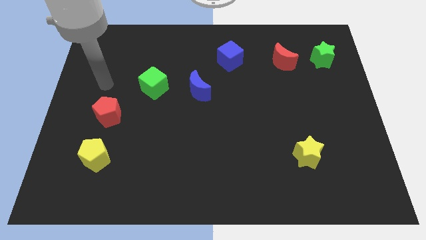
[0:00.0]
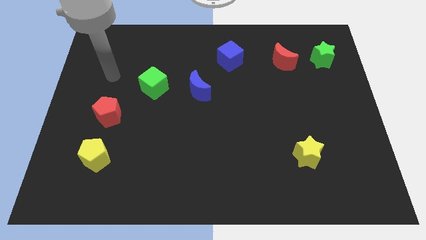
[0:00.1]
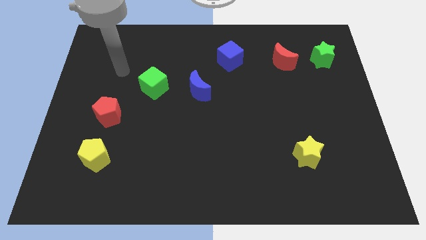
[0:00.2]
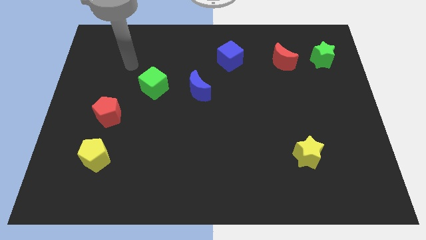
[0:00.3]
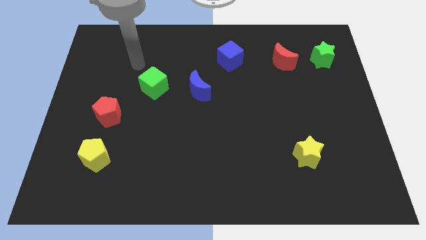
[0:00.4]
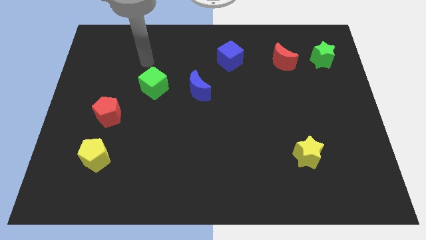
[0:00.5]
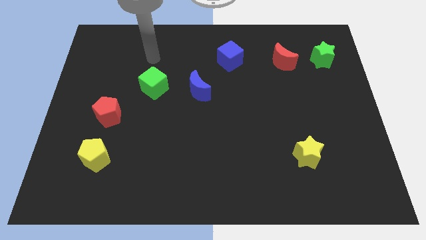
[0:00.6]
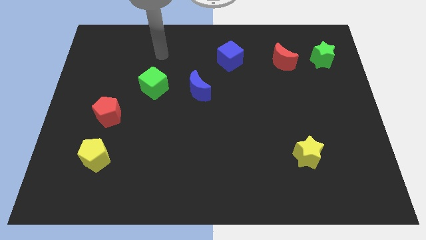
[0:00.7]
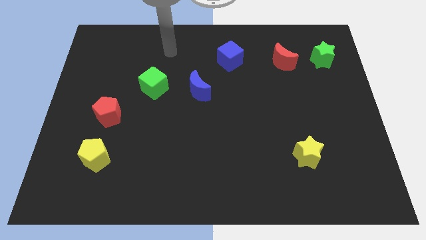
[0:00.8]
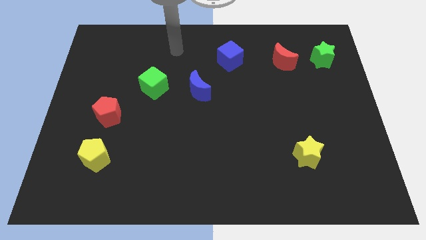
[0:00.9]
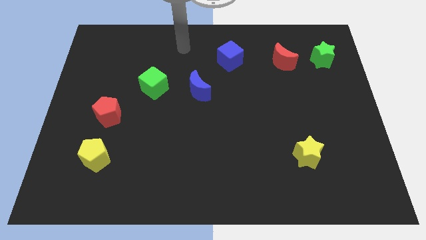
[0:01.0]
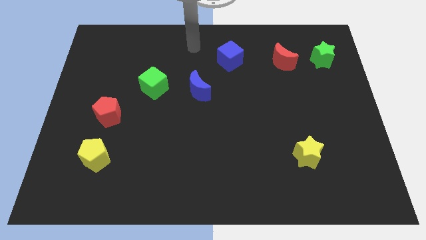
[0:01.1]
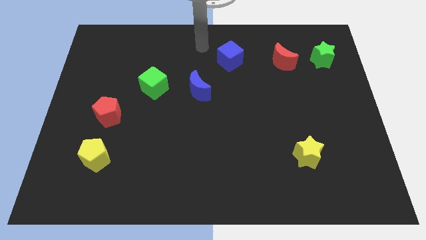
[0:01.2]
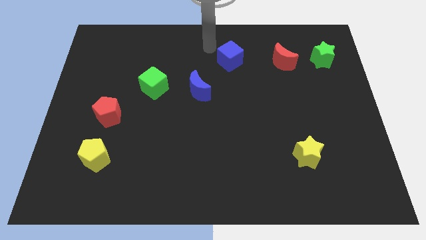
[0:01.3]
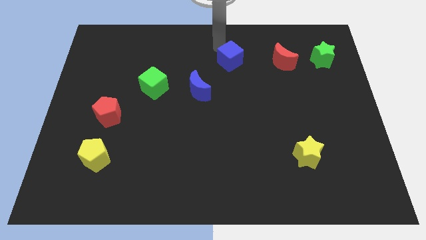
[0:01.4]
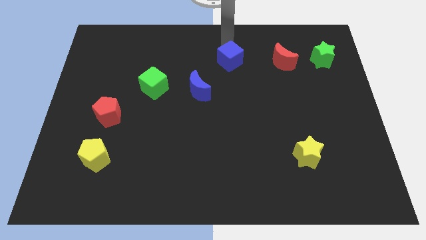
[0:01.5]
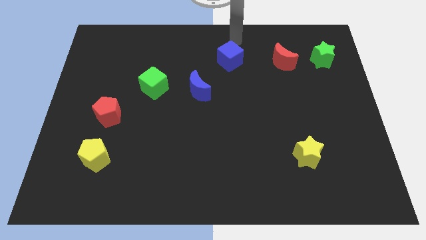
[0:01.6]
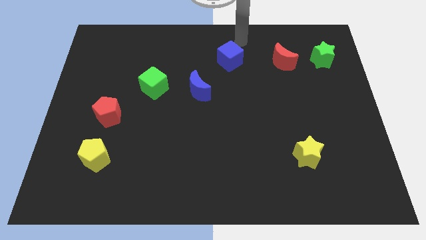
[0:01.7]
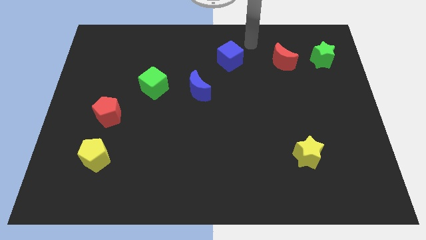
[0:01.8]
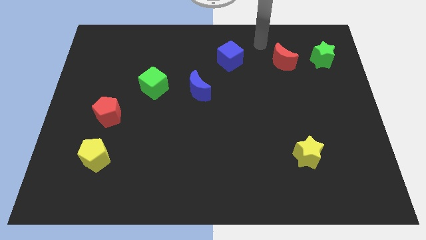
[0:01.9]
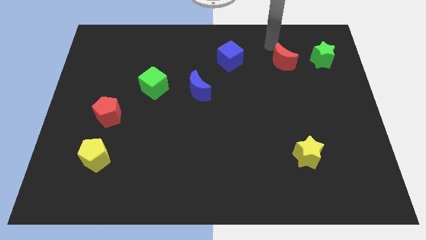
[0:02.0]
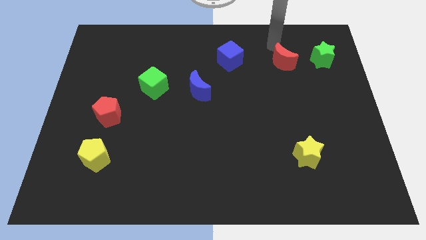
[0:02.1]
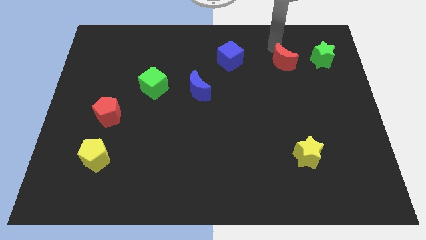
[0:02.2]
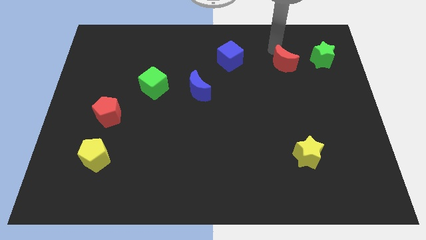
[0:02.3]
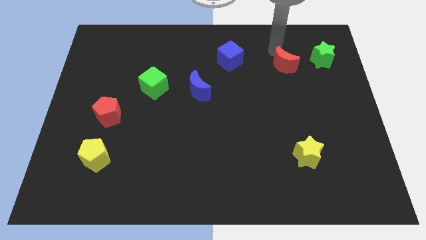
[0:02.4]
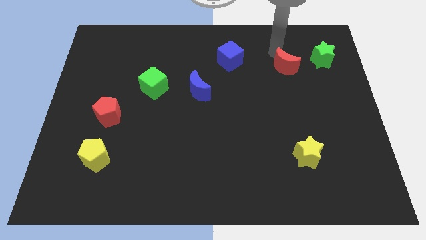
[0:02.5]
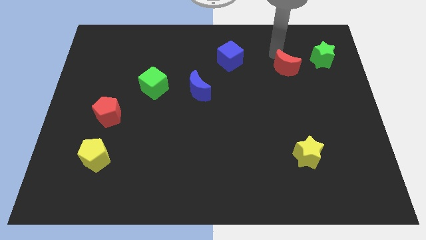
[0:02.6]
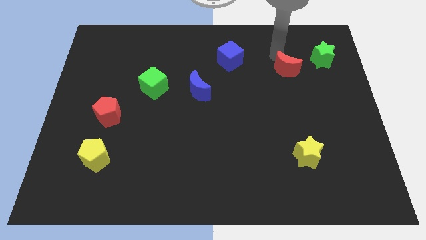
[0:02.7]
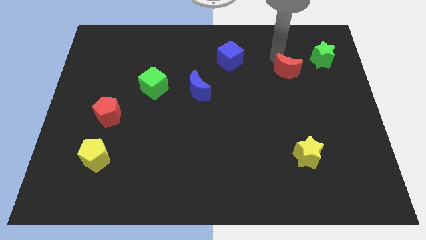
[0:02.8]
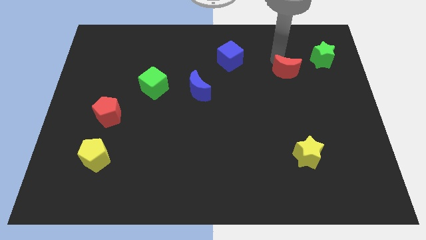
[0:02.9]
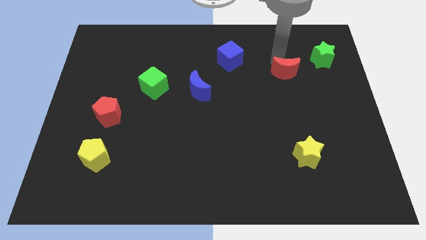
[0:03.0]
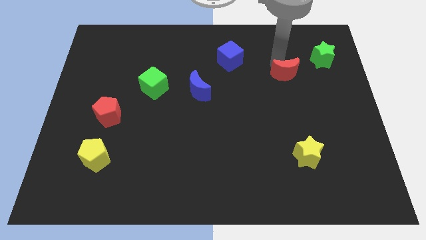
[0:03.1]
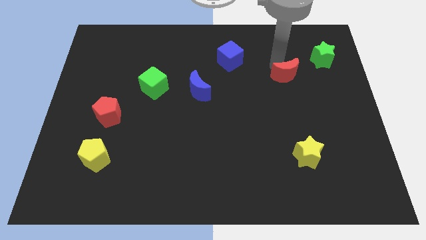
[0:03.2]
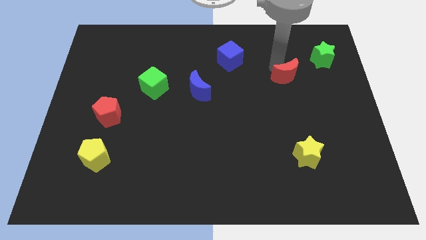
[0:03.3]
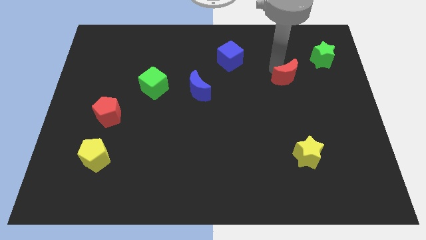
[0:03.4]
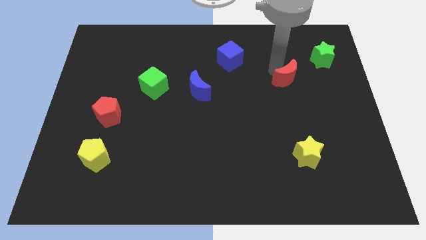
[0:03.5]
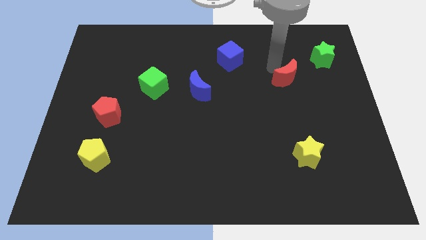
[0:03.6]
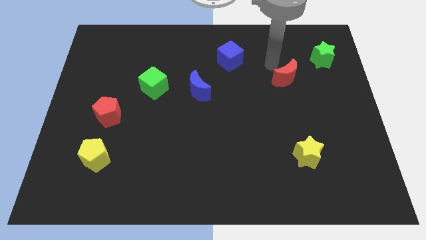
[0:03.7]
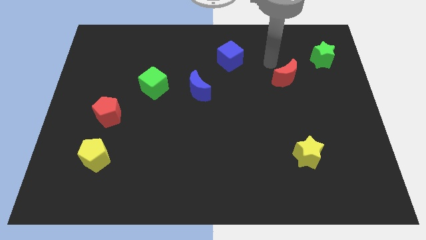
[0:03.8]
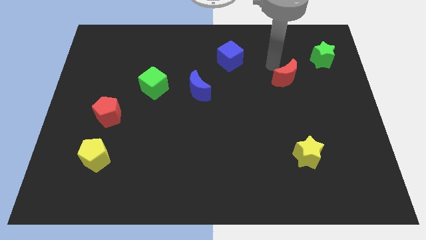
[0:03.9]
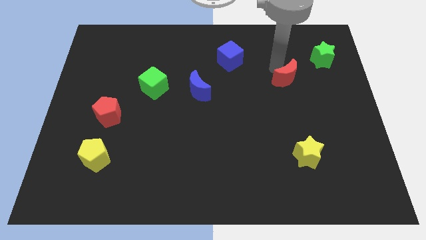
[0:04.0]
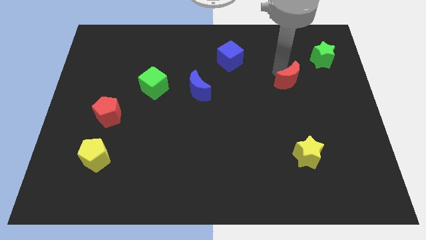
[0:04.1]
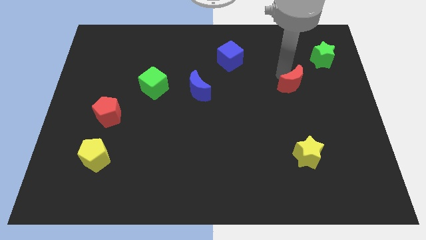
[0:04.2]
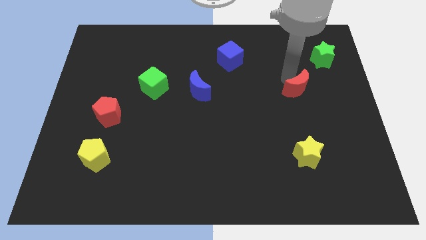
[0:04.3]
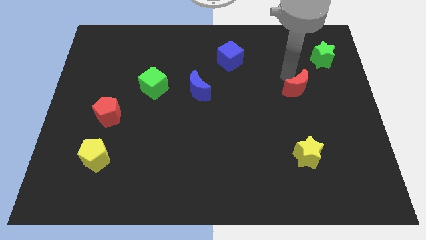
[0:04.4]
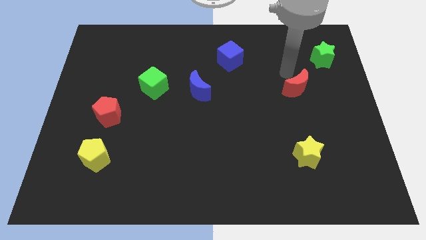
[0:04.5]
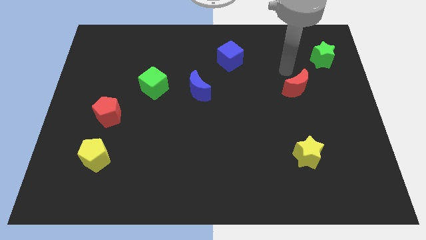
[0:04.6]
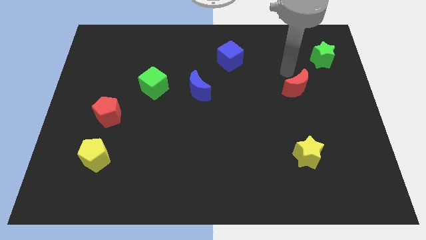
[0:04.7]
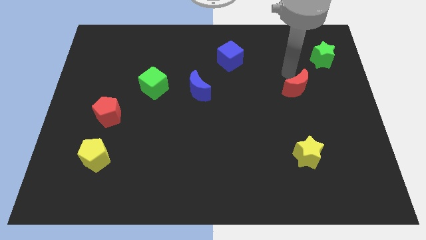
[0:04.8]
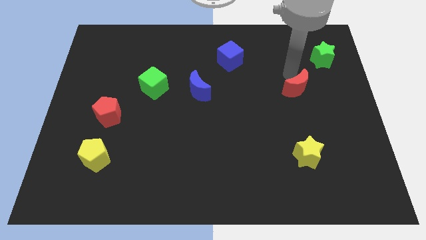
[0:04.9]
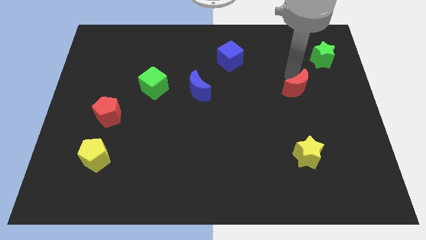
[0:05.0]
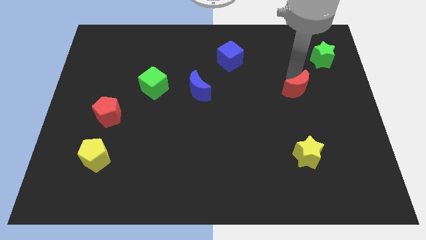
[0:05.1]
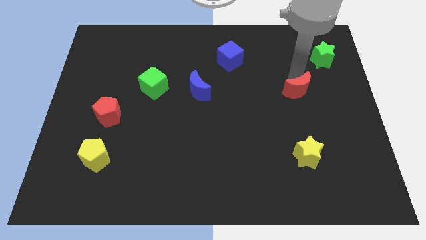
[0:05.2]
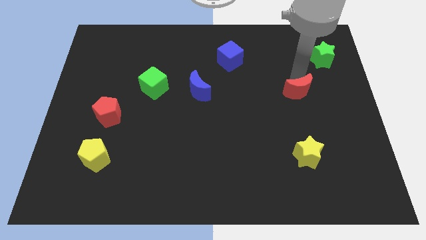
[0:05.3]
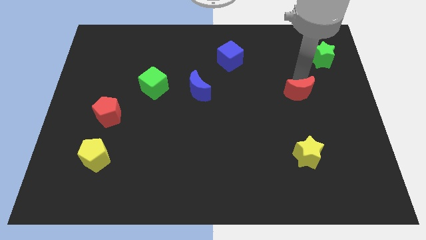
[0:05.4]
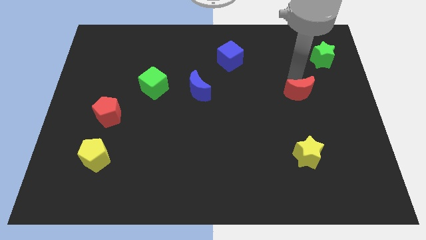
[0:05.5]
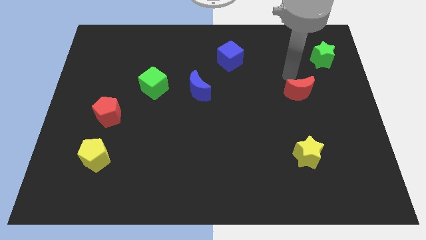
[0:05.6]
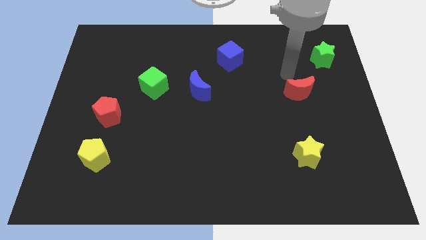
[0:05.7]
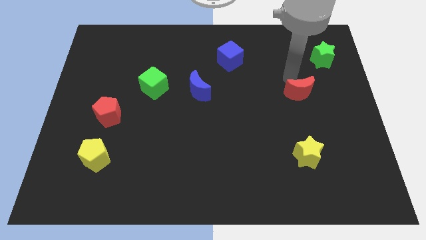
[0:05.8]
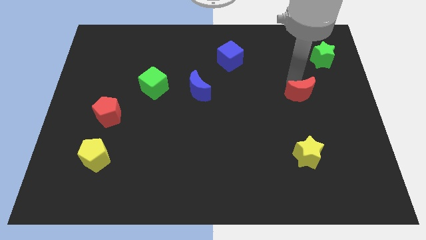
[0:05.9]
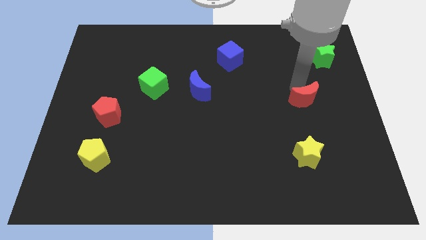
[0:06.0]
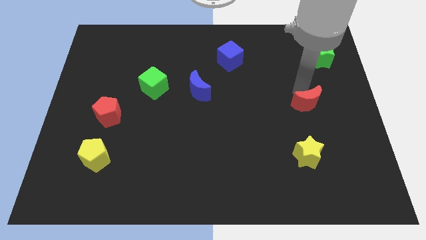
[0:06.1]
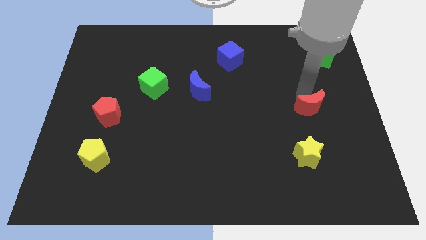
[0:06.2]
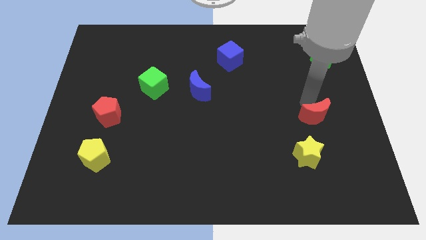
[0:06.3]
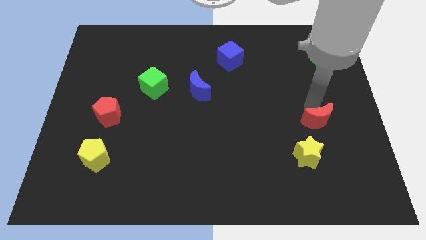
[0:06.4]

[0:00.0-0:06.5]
push the red moon to the top right side of the yellow star

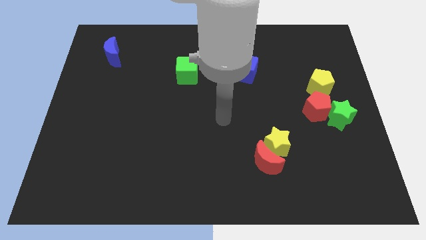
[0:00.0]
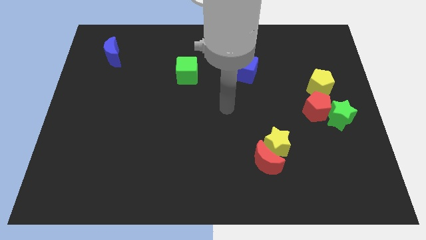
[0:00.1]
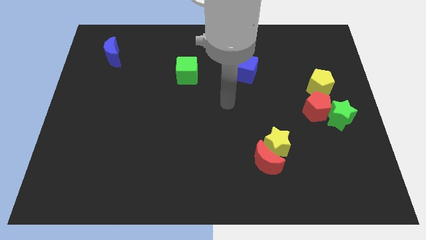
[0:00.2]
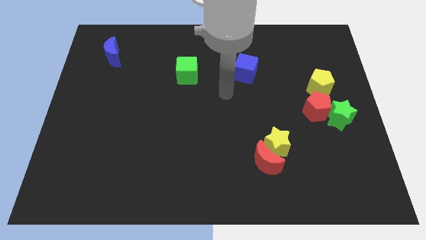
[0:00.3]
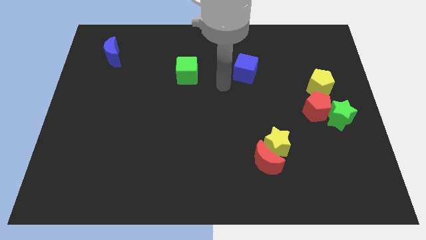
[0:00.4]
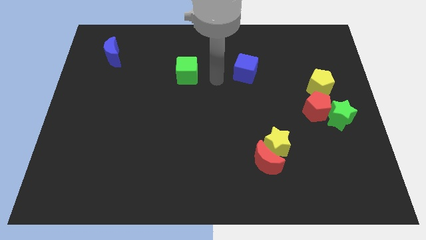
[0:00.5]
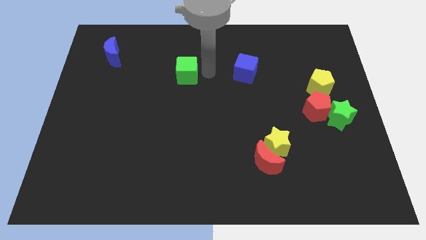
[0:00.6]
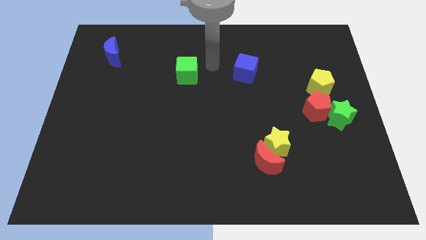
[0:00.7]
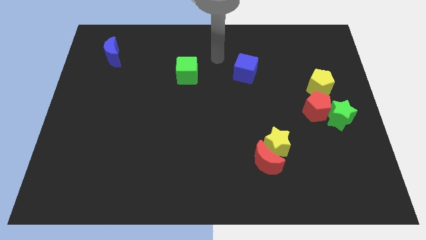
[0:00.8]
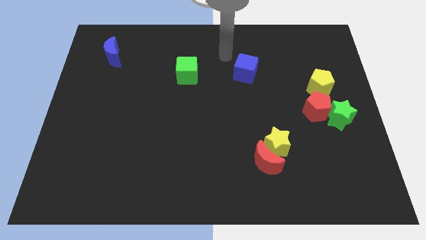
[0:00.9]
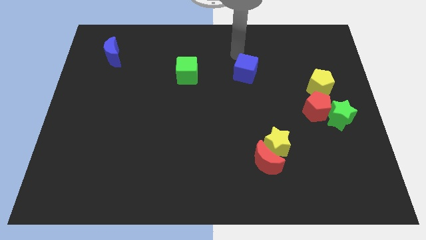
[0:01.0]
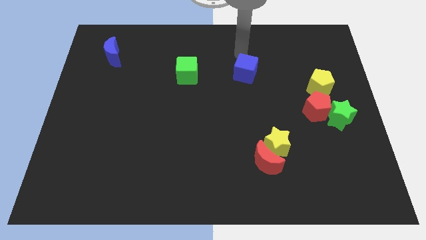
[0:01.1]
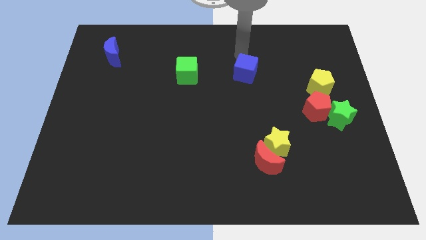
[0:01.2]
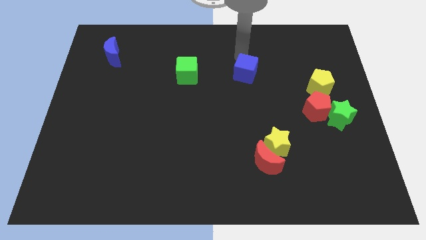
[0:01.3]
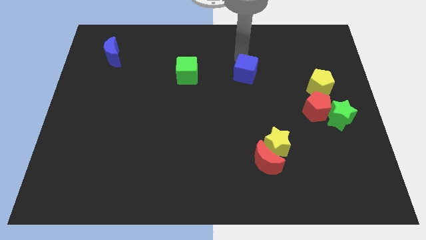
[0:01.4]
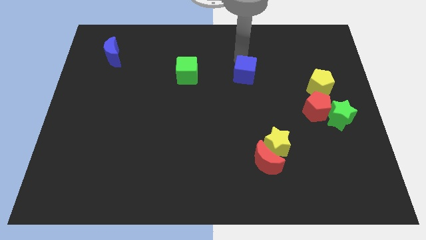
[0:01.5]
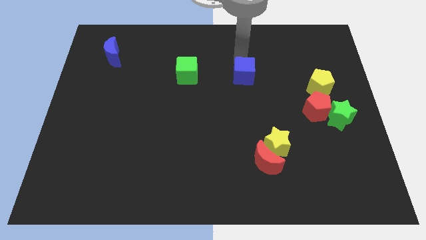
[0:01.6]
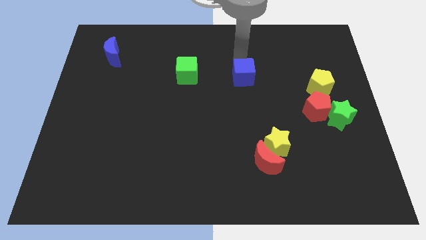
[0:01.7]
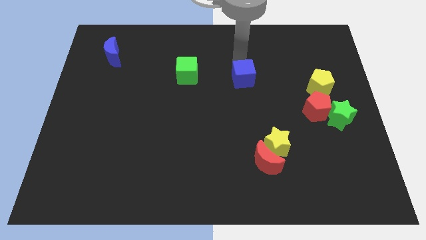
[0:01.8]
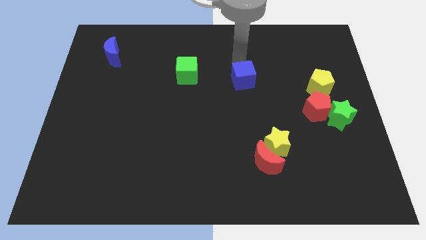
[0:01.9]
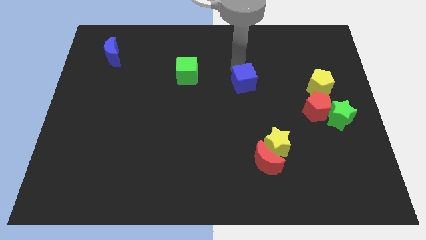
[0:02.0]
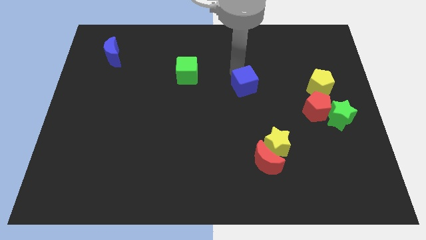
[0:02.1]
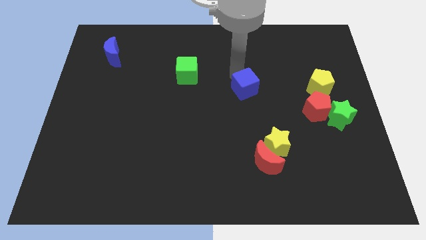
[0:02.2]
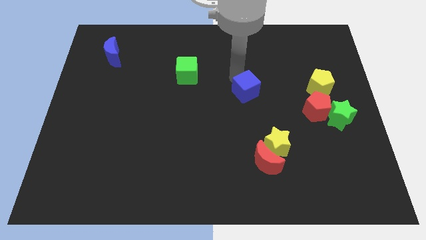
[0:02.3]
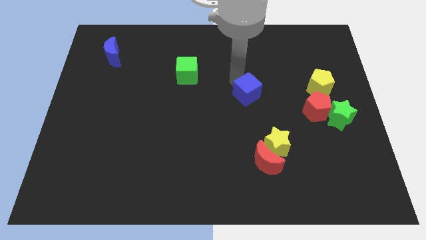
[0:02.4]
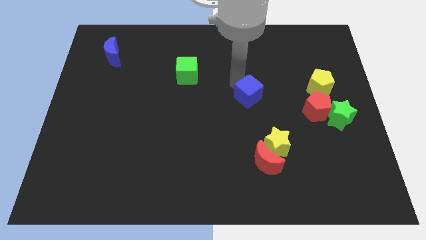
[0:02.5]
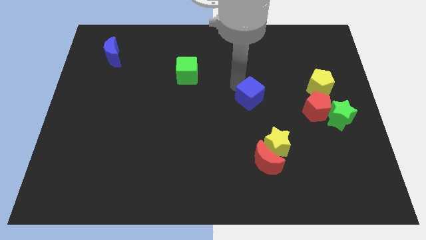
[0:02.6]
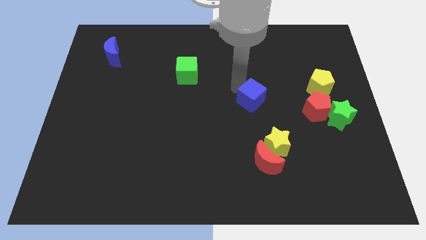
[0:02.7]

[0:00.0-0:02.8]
push the blue cube to the left side of the red pentagon
